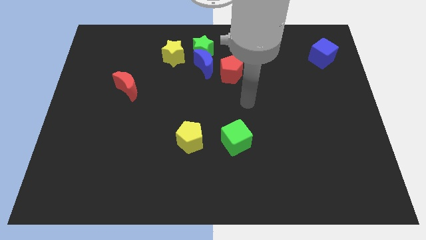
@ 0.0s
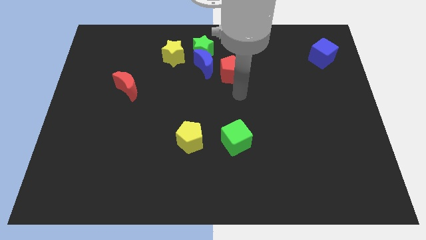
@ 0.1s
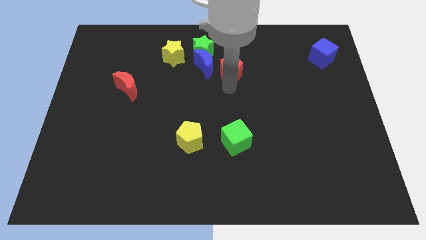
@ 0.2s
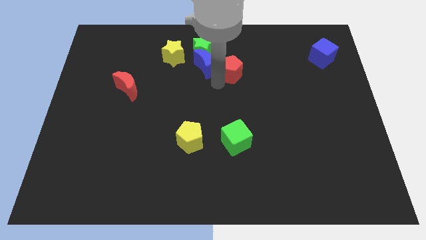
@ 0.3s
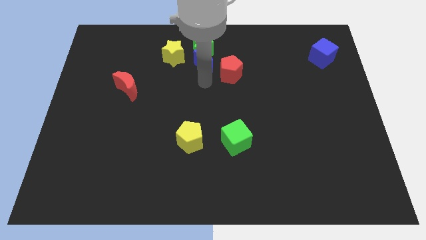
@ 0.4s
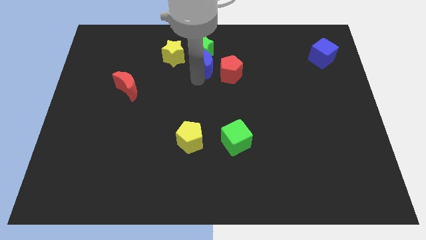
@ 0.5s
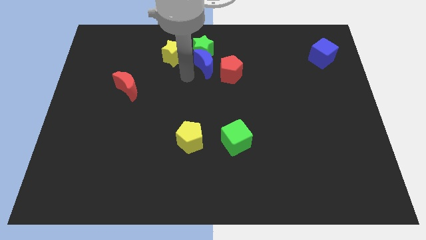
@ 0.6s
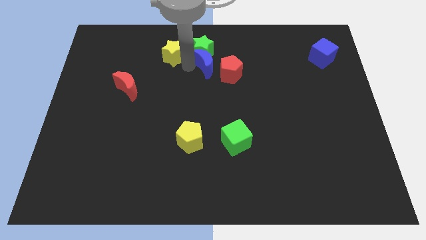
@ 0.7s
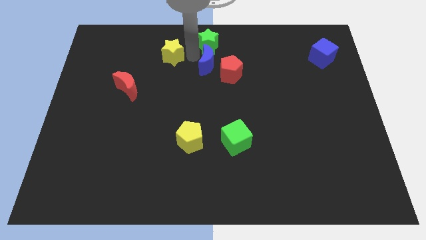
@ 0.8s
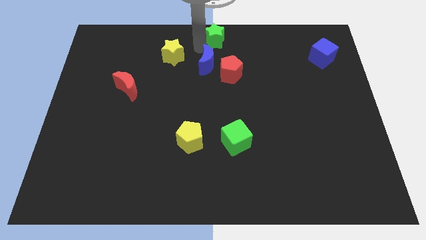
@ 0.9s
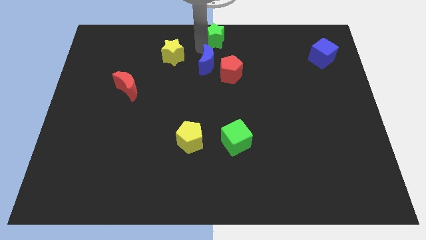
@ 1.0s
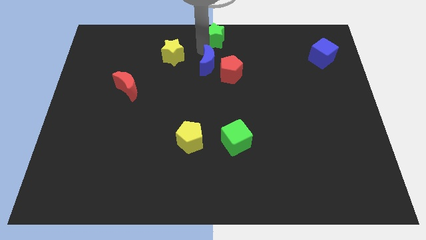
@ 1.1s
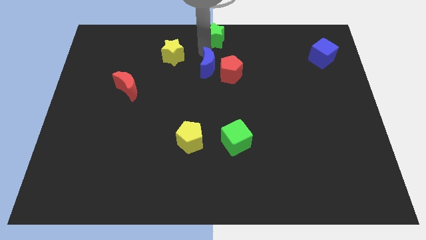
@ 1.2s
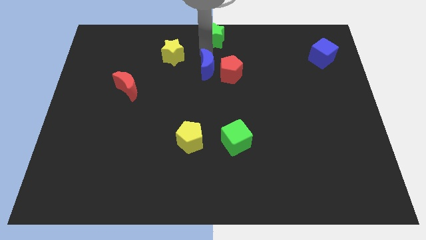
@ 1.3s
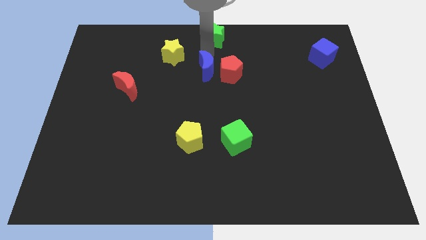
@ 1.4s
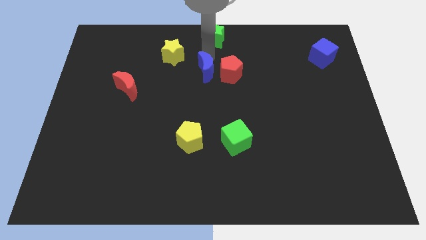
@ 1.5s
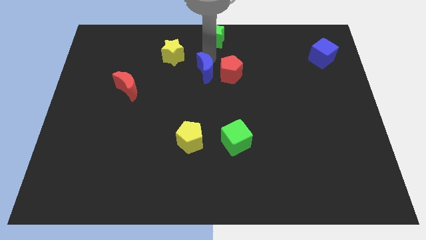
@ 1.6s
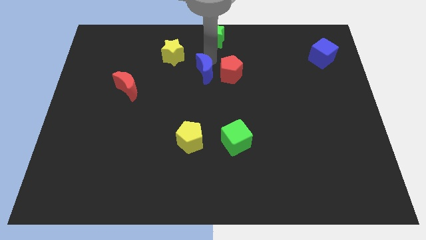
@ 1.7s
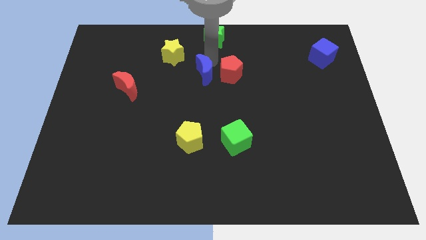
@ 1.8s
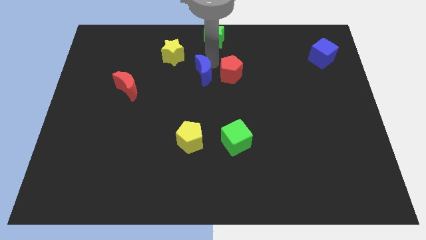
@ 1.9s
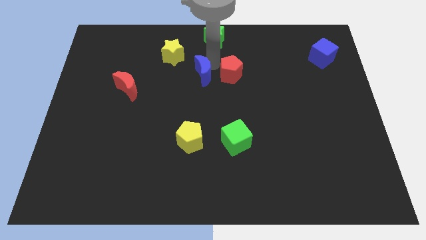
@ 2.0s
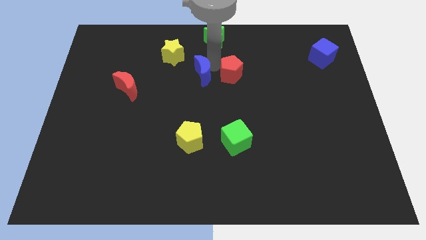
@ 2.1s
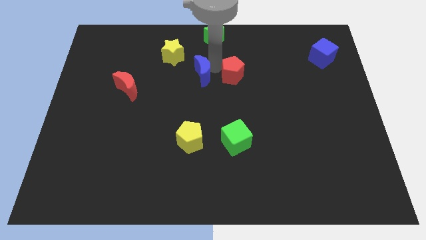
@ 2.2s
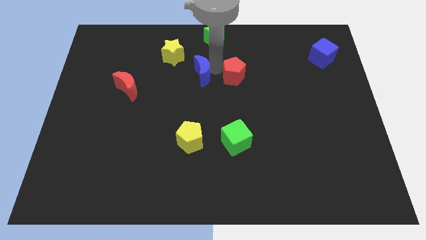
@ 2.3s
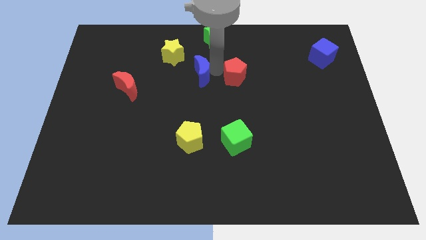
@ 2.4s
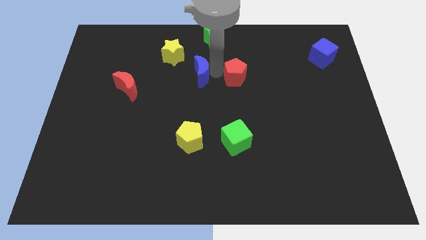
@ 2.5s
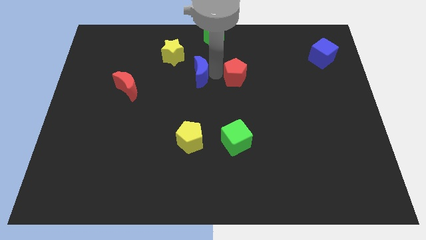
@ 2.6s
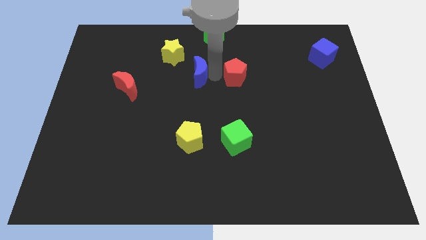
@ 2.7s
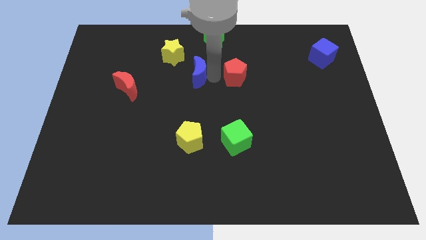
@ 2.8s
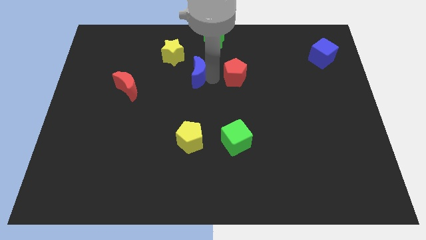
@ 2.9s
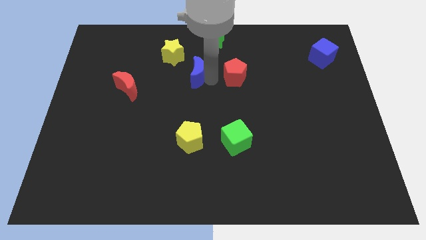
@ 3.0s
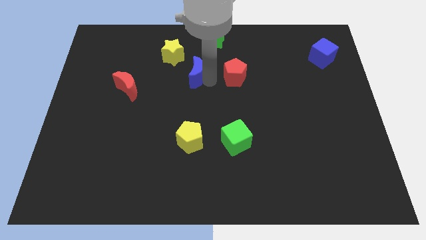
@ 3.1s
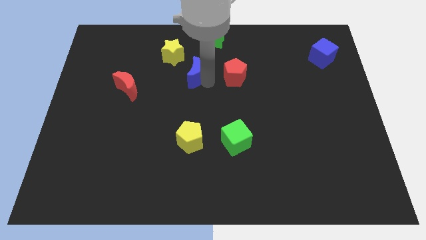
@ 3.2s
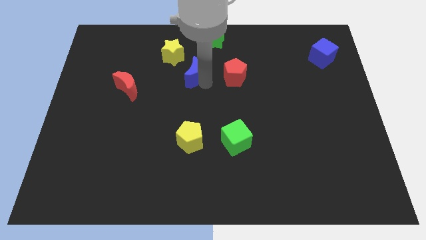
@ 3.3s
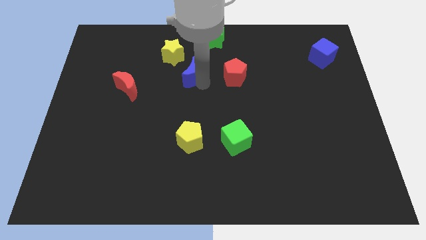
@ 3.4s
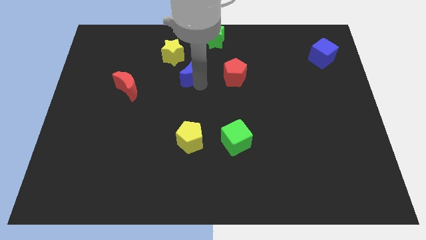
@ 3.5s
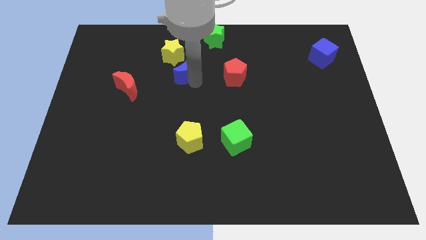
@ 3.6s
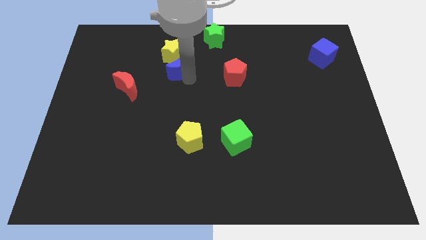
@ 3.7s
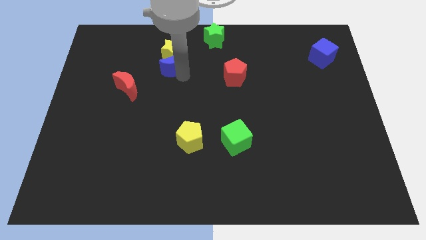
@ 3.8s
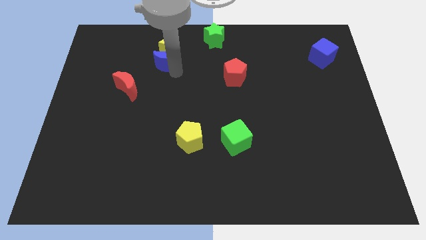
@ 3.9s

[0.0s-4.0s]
move the blue moon away from the green star, red pentagon, and yellow star

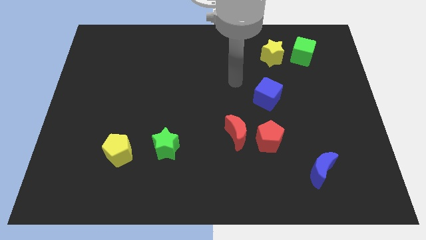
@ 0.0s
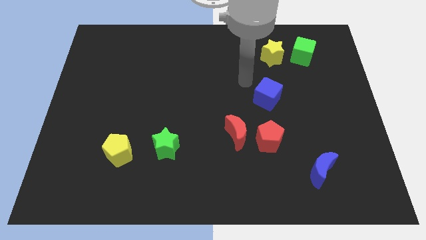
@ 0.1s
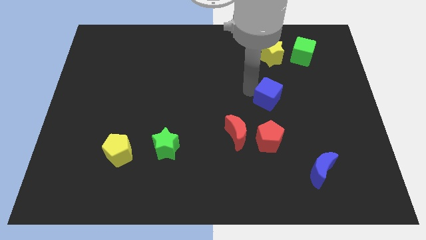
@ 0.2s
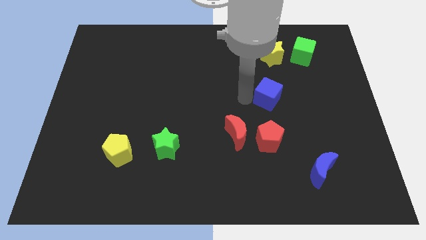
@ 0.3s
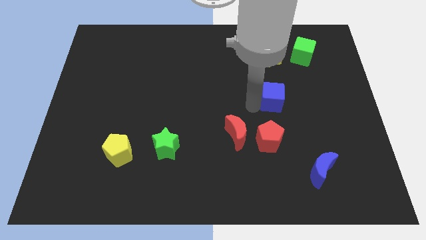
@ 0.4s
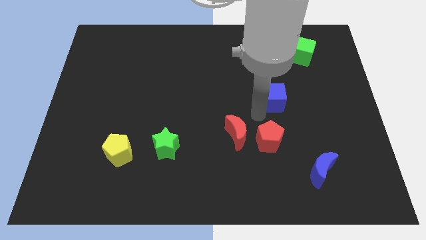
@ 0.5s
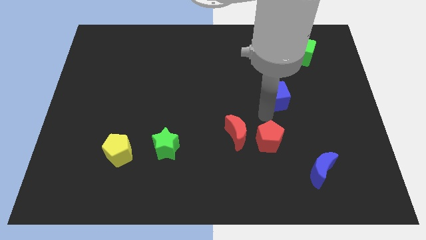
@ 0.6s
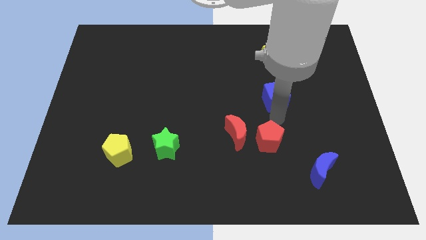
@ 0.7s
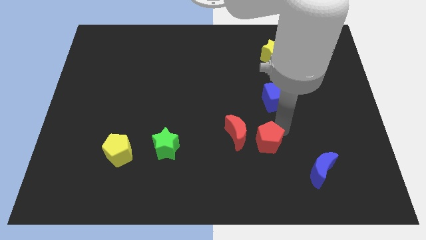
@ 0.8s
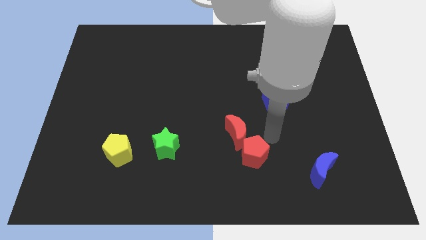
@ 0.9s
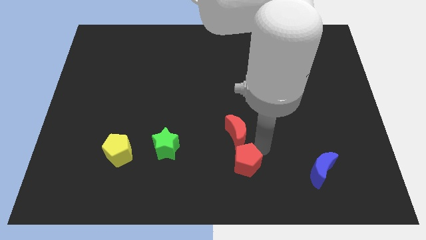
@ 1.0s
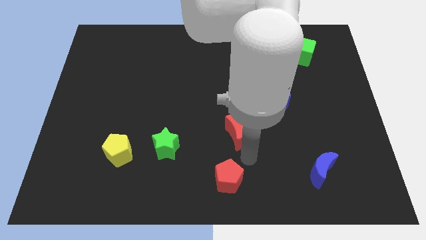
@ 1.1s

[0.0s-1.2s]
separate the red moon from the red pentagon

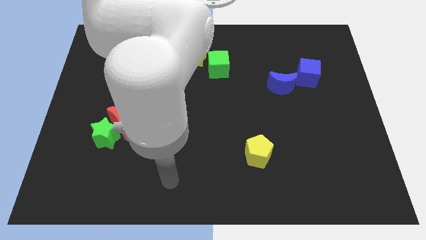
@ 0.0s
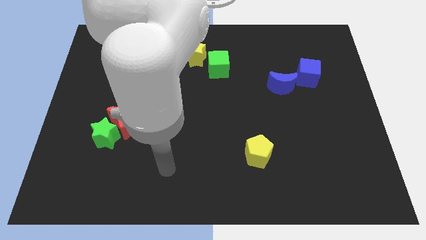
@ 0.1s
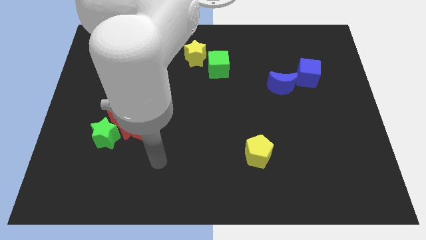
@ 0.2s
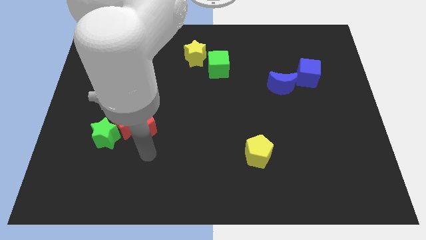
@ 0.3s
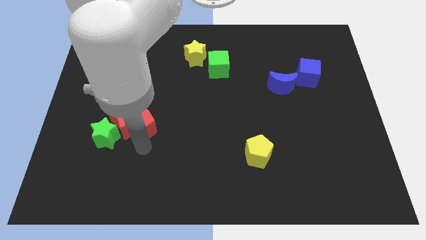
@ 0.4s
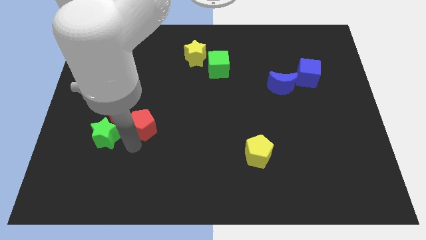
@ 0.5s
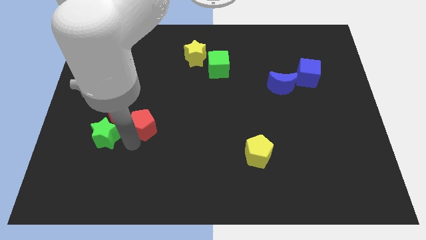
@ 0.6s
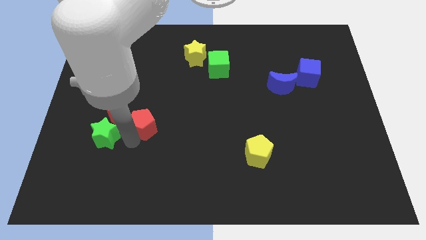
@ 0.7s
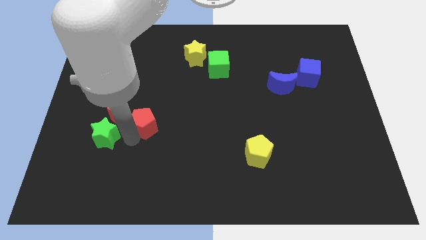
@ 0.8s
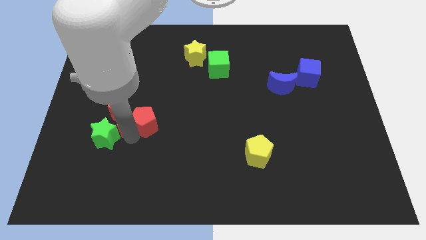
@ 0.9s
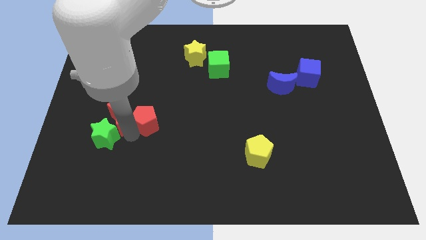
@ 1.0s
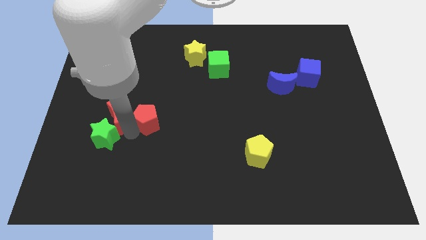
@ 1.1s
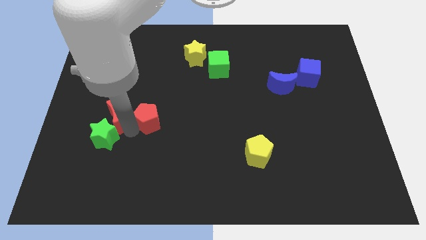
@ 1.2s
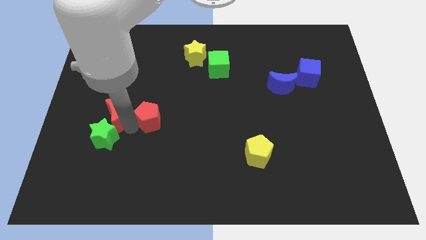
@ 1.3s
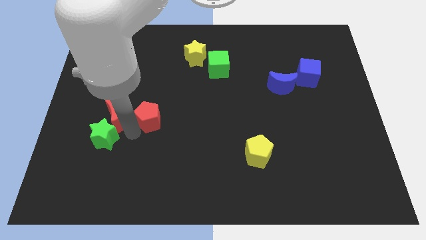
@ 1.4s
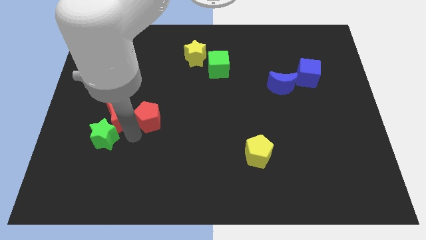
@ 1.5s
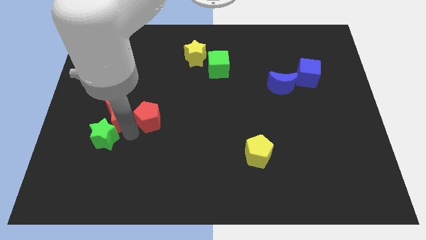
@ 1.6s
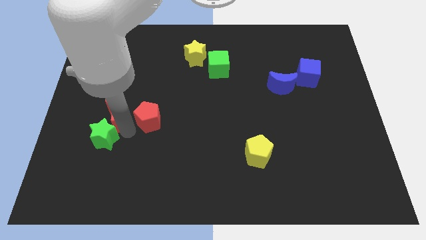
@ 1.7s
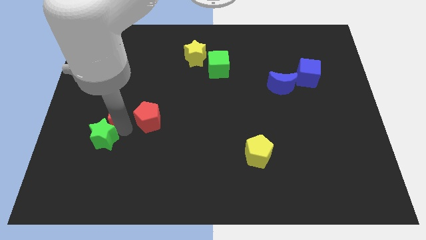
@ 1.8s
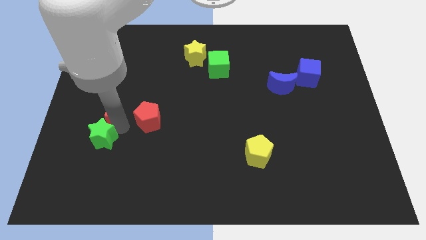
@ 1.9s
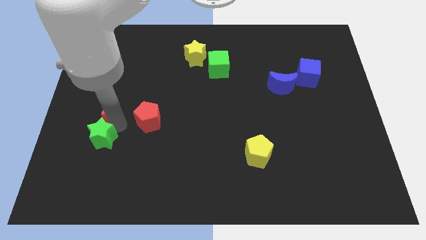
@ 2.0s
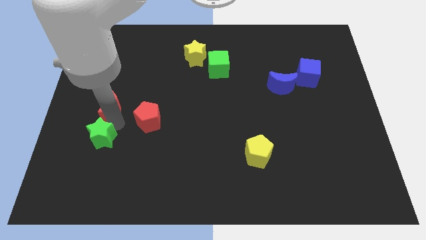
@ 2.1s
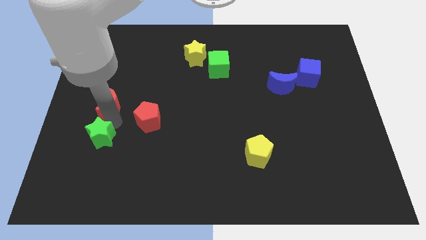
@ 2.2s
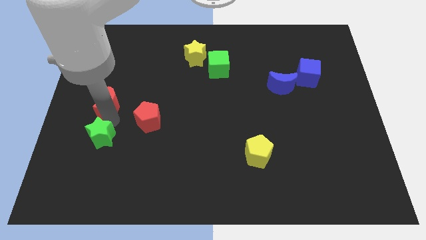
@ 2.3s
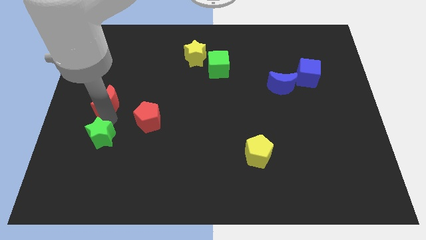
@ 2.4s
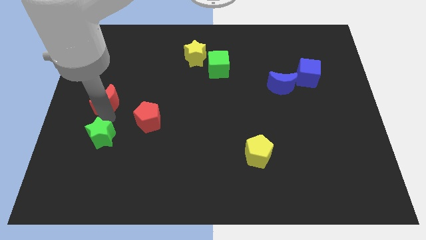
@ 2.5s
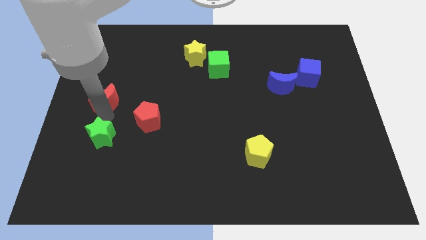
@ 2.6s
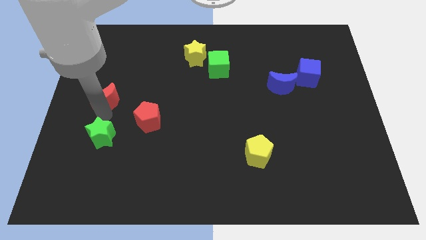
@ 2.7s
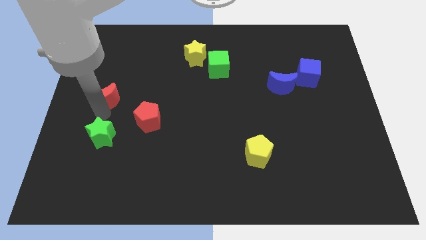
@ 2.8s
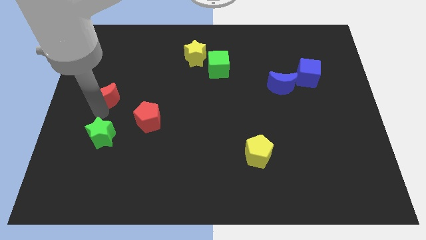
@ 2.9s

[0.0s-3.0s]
pull the red moon apart from the red pentagon and green star

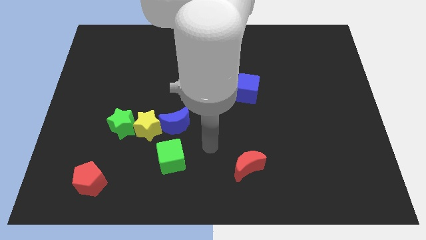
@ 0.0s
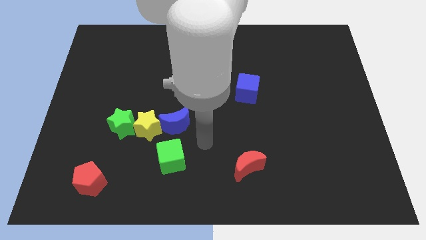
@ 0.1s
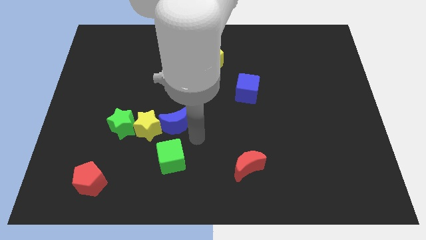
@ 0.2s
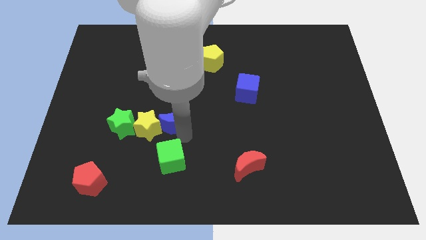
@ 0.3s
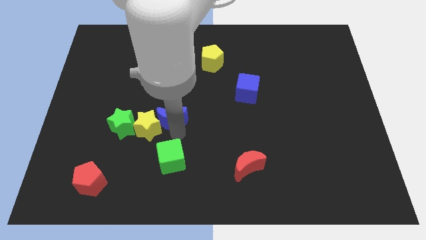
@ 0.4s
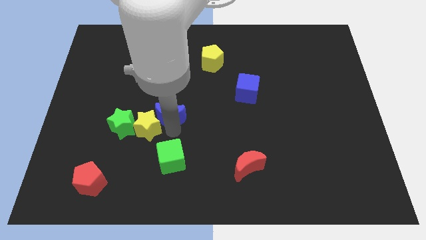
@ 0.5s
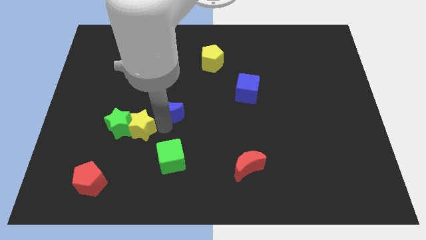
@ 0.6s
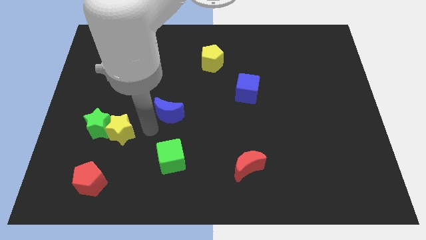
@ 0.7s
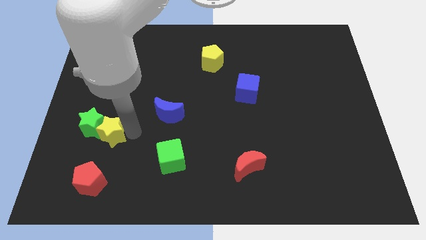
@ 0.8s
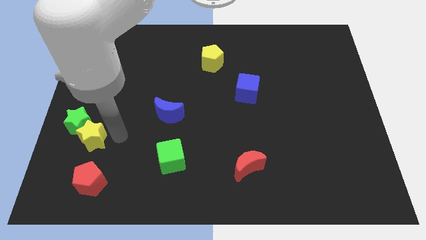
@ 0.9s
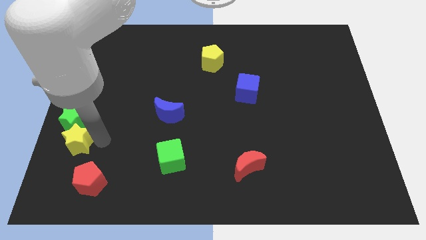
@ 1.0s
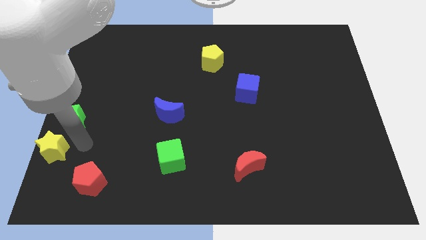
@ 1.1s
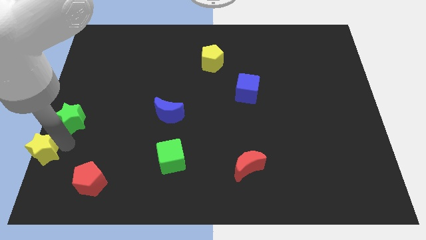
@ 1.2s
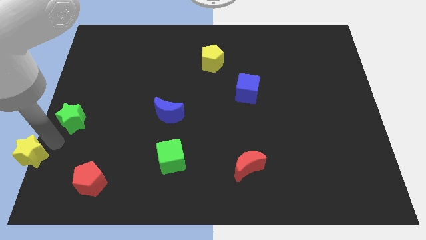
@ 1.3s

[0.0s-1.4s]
move the green star away from the yellow star
